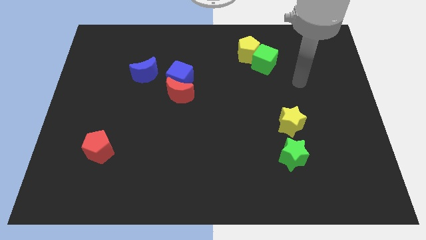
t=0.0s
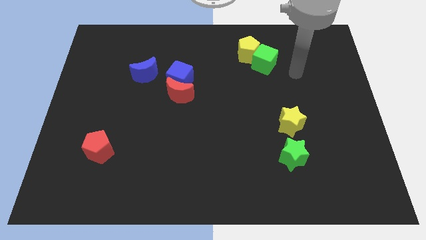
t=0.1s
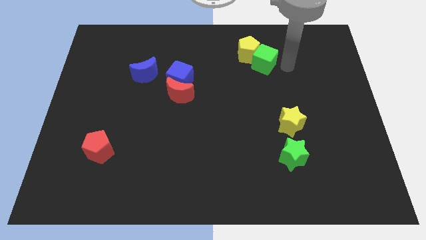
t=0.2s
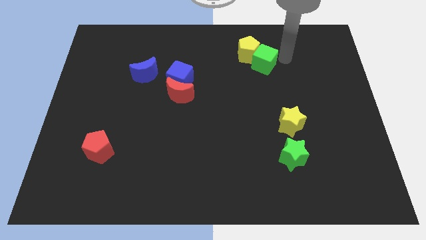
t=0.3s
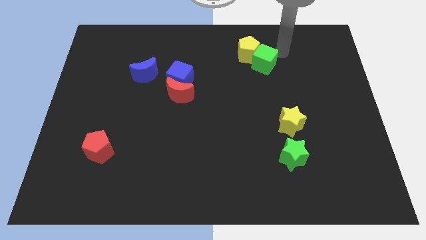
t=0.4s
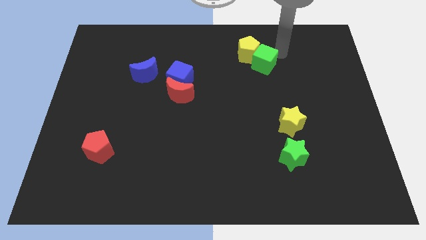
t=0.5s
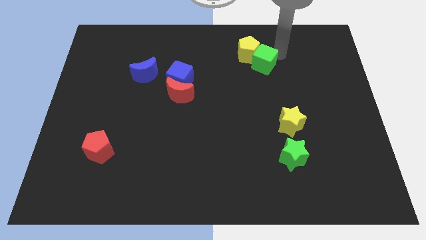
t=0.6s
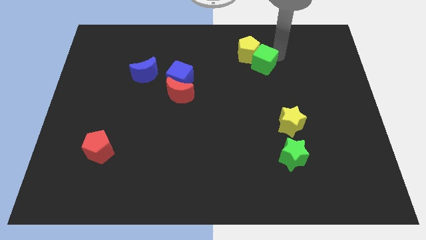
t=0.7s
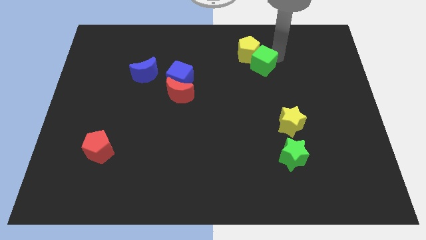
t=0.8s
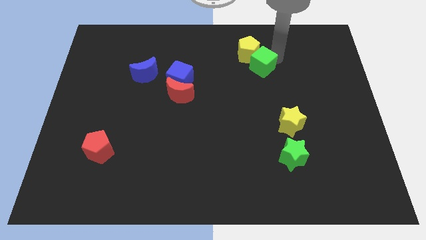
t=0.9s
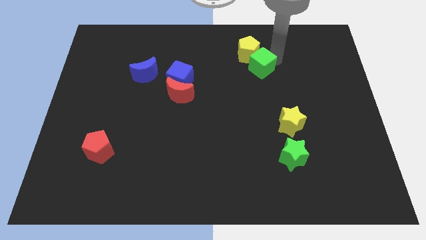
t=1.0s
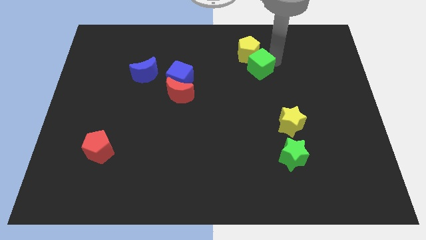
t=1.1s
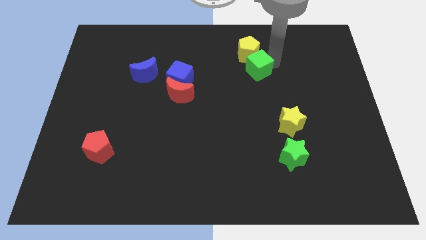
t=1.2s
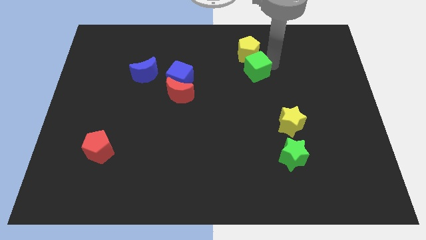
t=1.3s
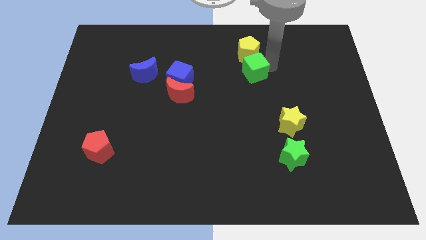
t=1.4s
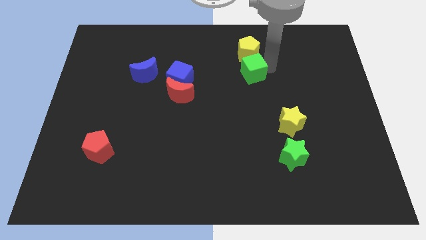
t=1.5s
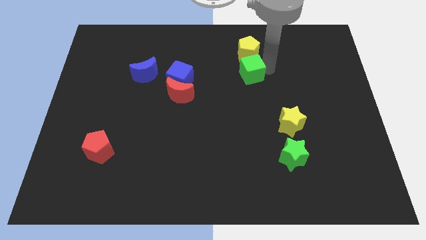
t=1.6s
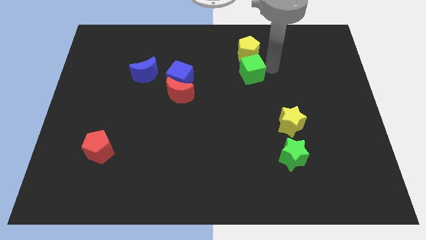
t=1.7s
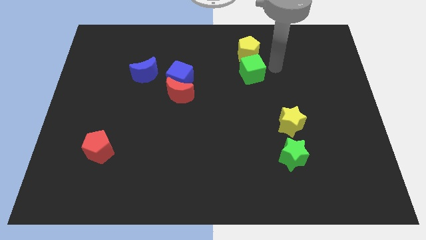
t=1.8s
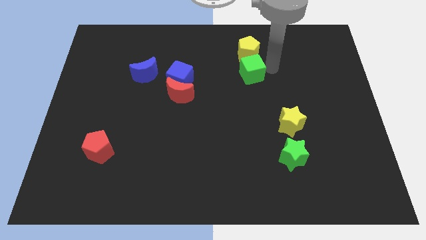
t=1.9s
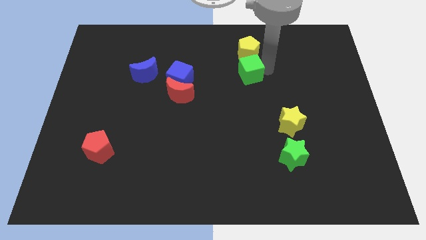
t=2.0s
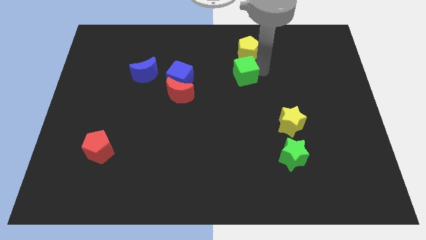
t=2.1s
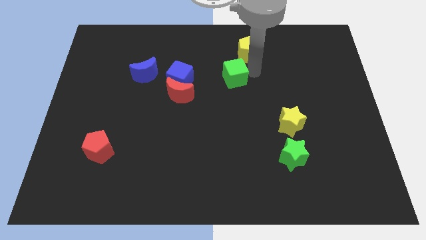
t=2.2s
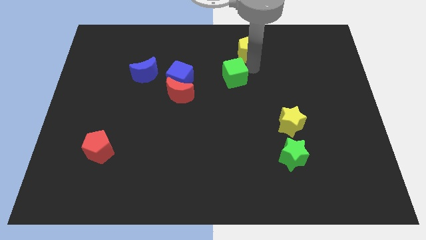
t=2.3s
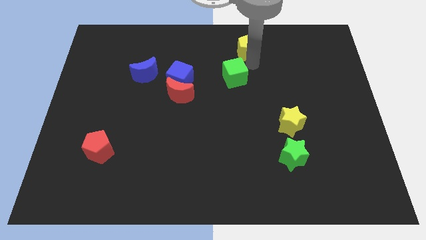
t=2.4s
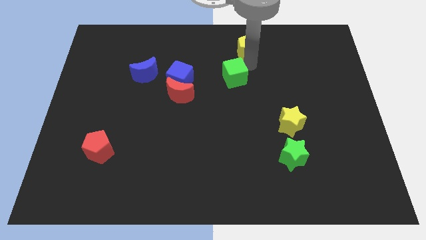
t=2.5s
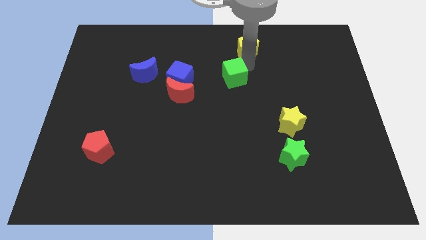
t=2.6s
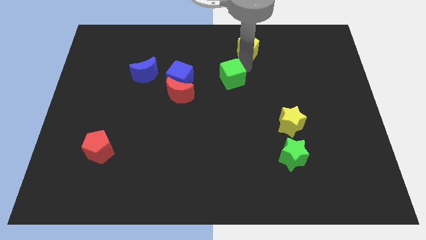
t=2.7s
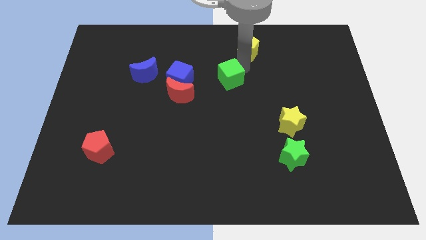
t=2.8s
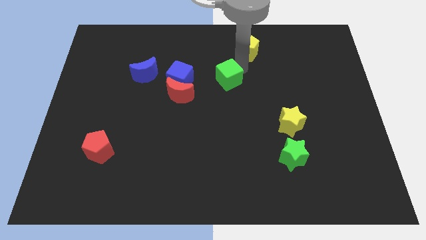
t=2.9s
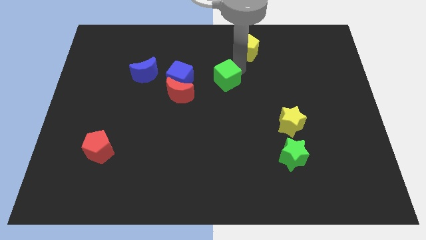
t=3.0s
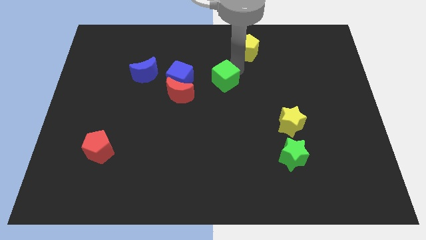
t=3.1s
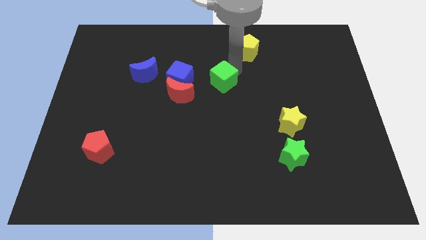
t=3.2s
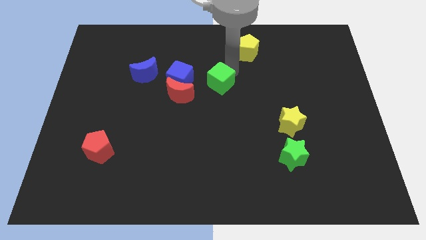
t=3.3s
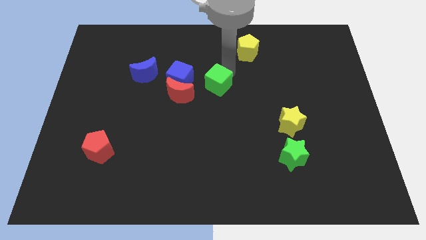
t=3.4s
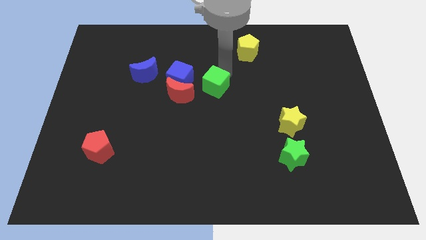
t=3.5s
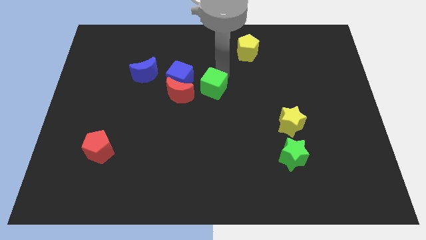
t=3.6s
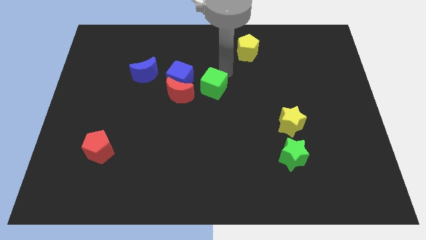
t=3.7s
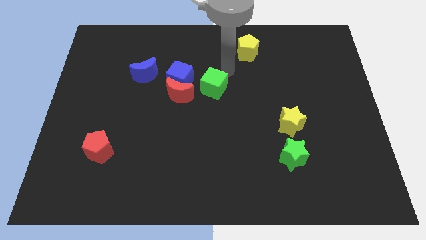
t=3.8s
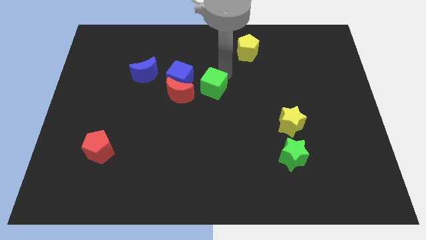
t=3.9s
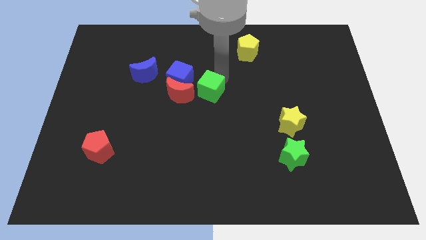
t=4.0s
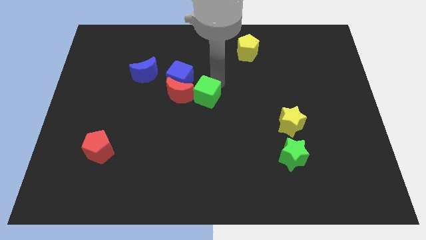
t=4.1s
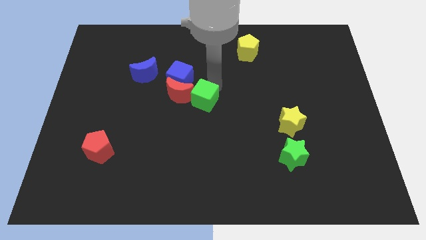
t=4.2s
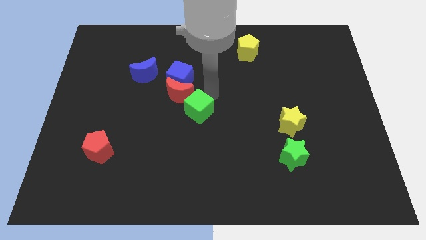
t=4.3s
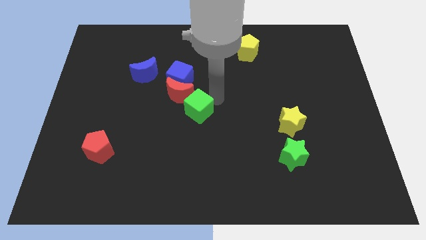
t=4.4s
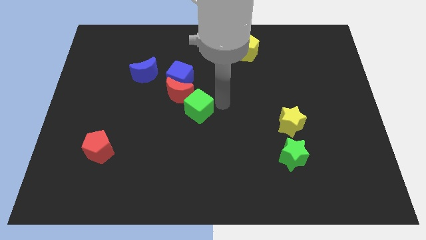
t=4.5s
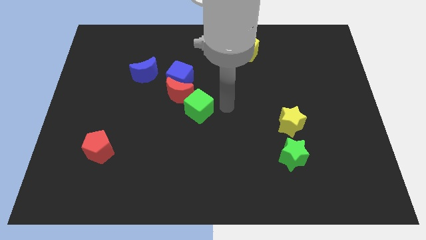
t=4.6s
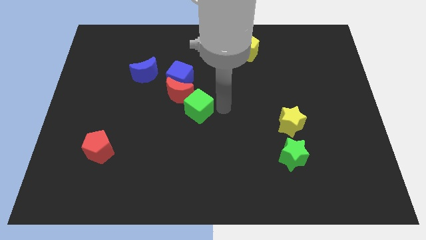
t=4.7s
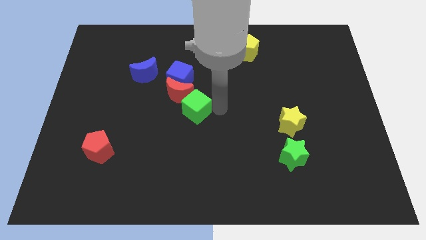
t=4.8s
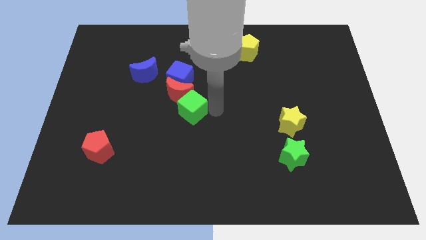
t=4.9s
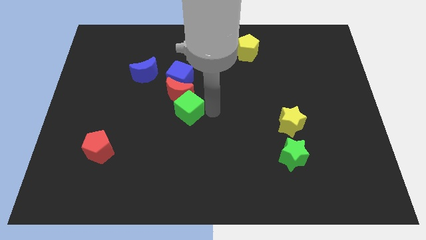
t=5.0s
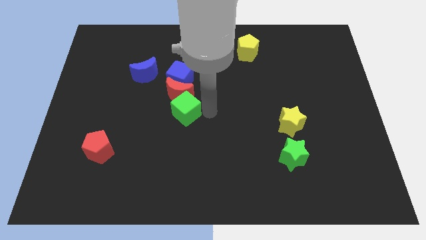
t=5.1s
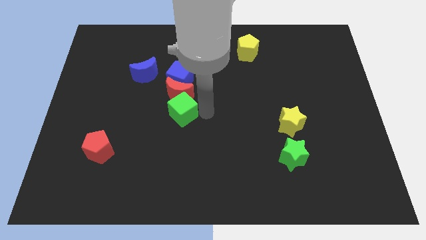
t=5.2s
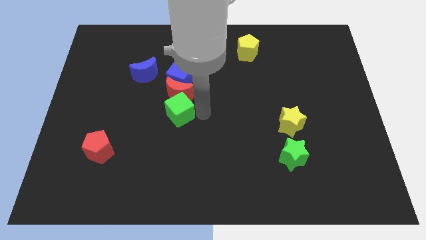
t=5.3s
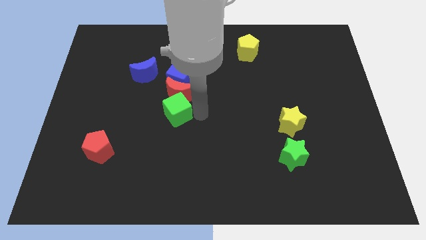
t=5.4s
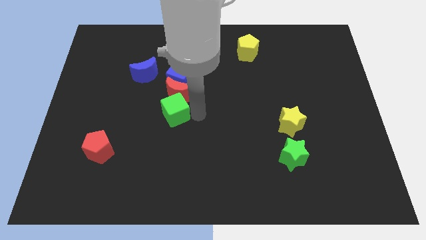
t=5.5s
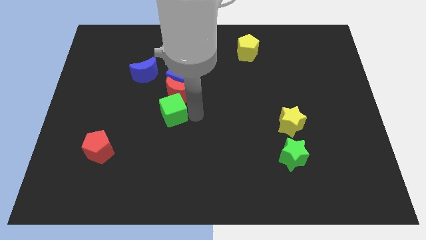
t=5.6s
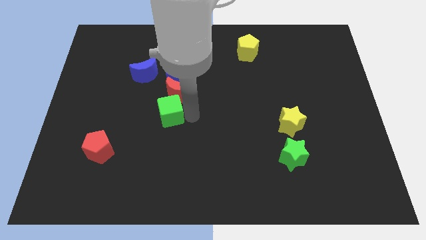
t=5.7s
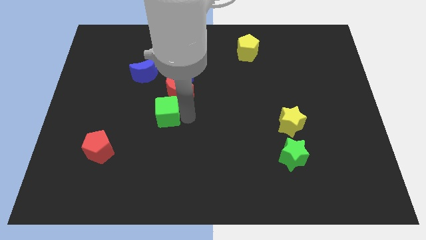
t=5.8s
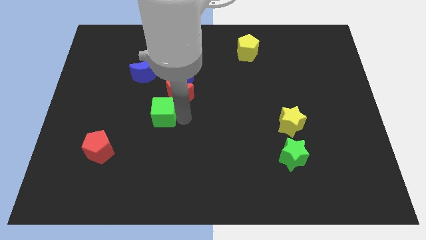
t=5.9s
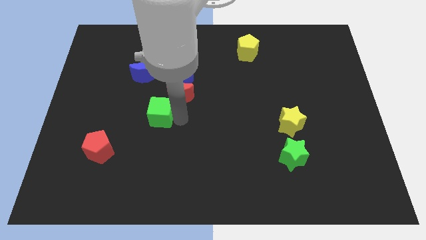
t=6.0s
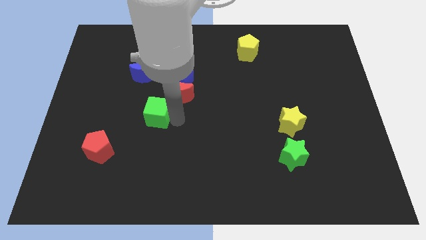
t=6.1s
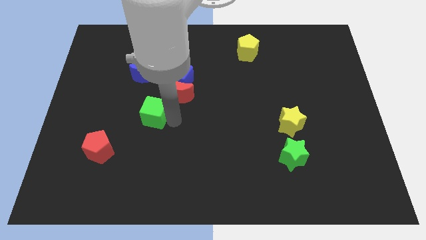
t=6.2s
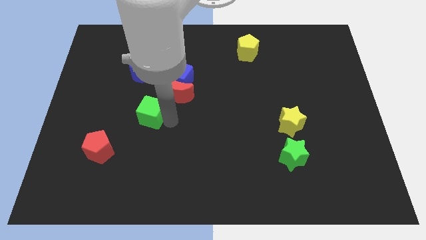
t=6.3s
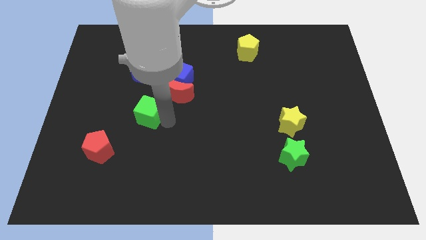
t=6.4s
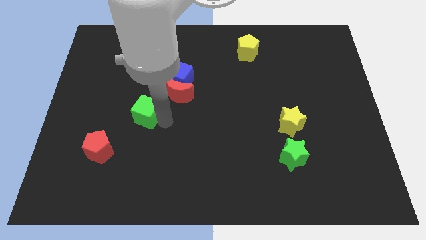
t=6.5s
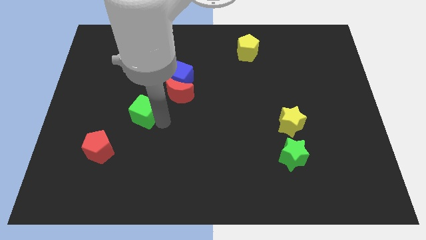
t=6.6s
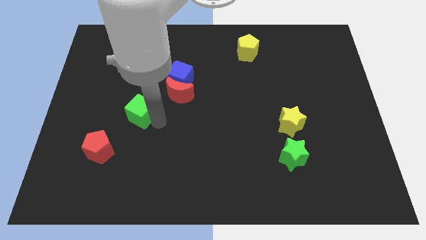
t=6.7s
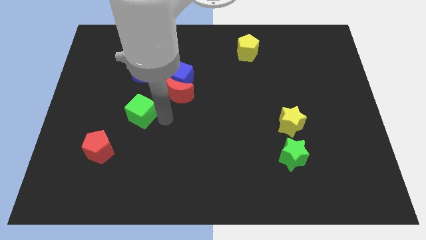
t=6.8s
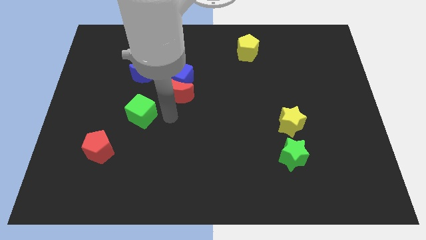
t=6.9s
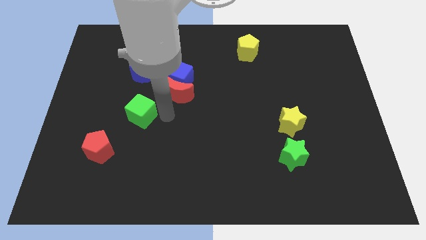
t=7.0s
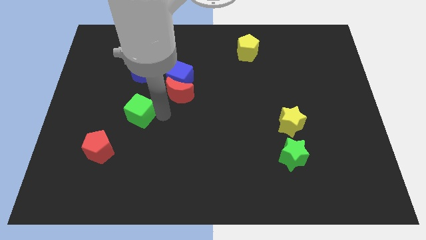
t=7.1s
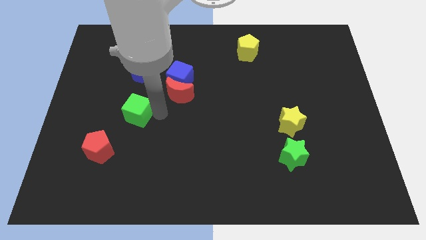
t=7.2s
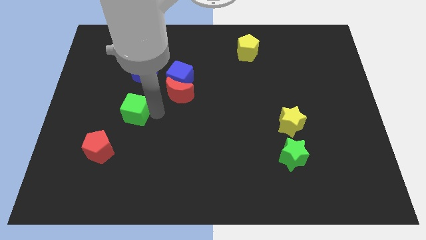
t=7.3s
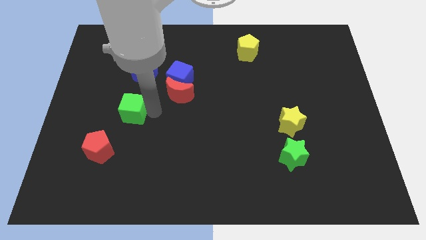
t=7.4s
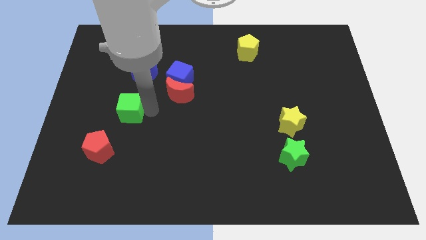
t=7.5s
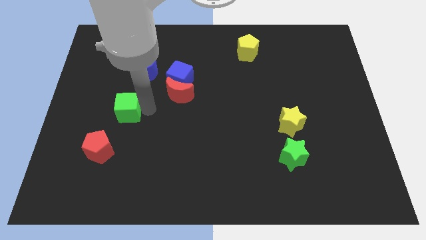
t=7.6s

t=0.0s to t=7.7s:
slide the green cube above the red pentagon
